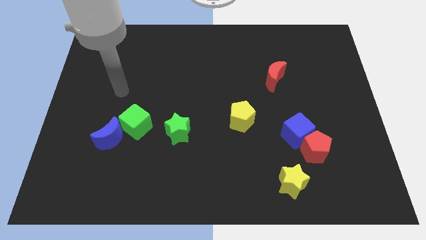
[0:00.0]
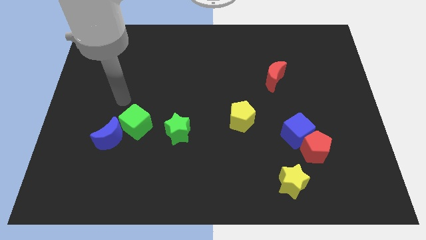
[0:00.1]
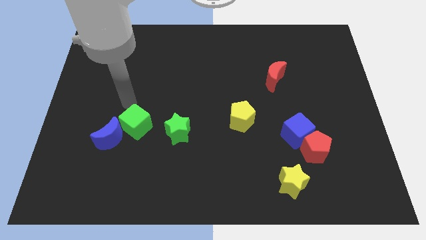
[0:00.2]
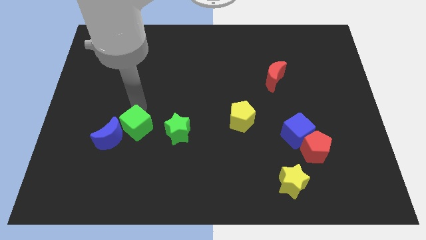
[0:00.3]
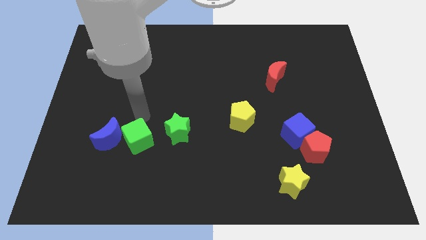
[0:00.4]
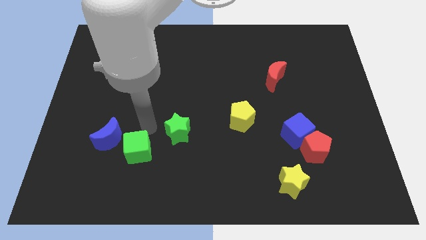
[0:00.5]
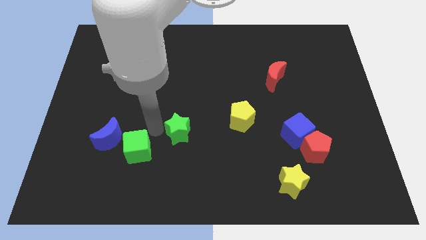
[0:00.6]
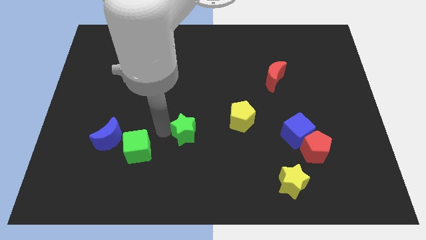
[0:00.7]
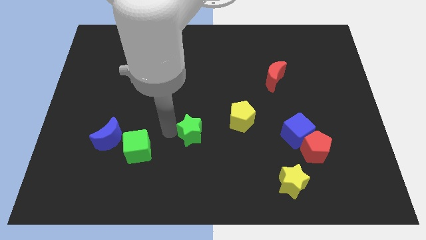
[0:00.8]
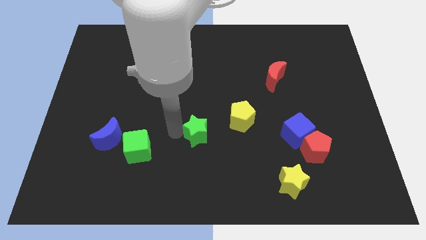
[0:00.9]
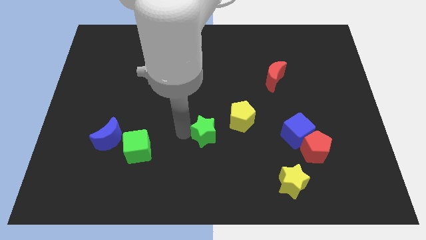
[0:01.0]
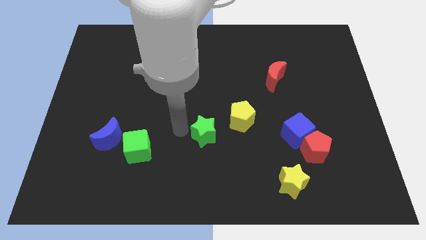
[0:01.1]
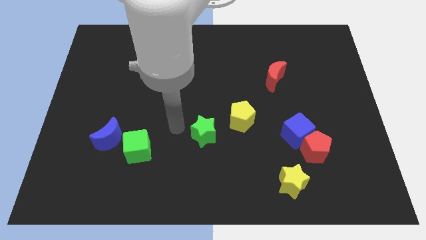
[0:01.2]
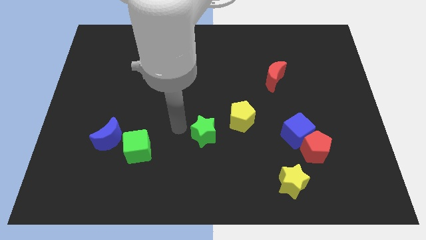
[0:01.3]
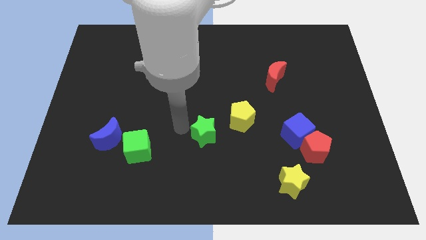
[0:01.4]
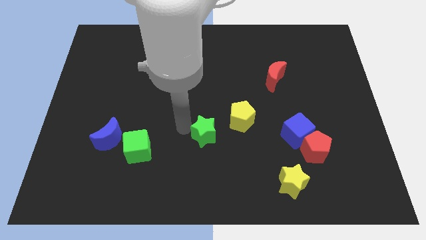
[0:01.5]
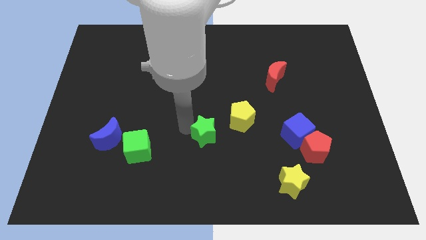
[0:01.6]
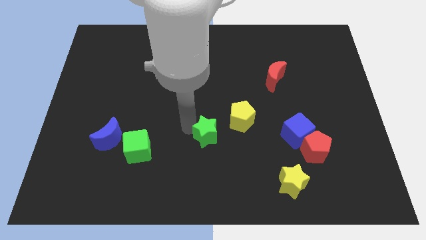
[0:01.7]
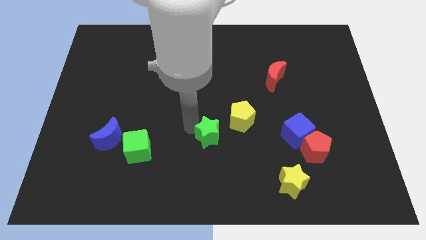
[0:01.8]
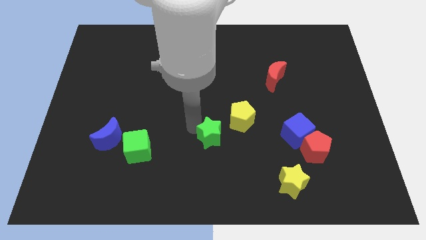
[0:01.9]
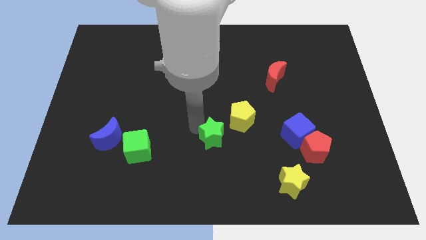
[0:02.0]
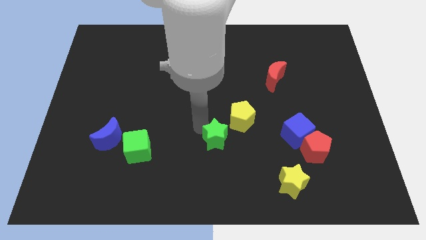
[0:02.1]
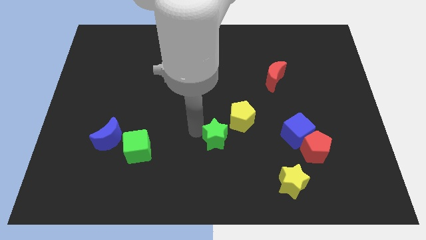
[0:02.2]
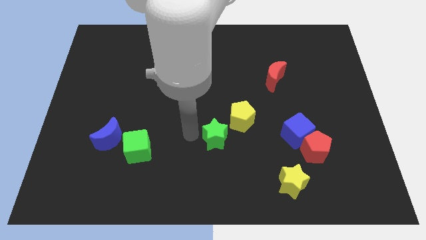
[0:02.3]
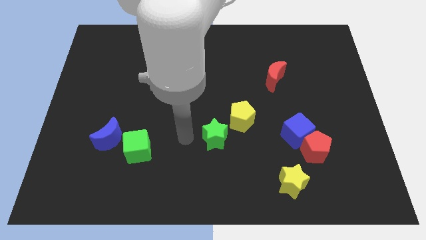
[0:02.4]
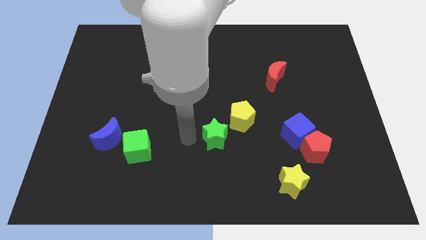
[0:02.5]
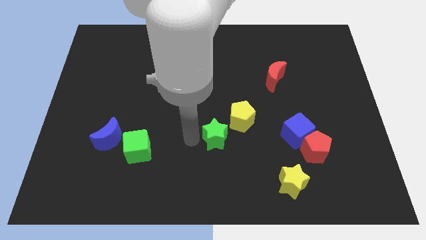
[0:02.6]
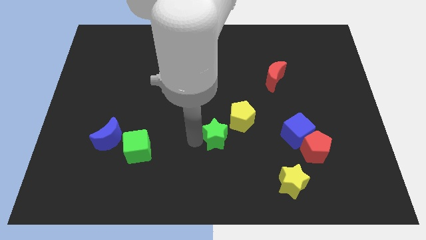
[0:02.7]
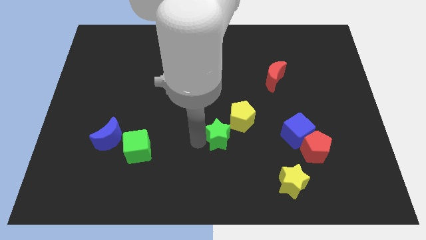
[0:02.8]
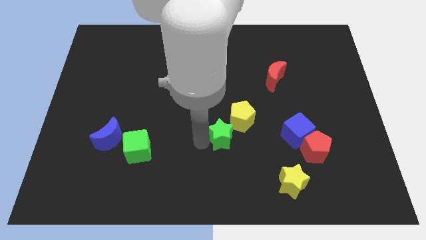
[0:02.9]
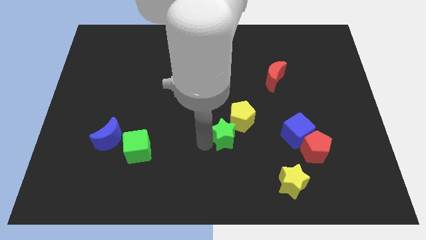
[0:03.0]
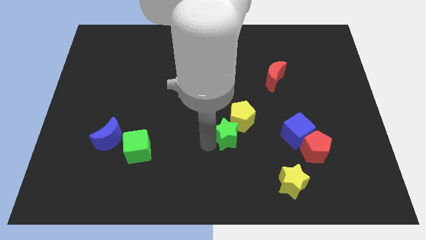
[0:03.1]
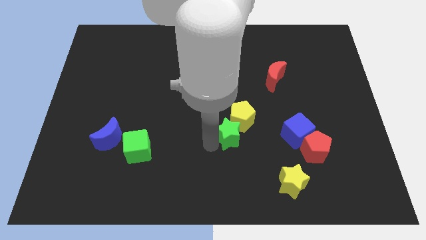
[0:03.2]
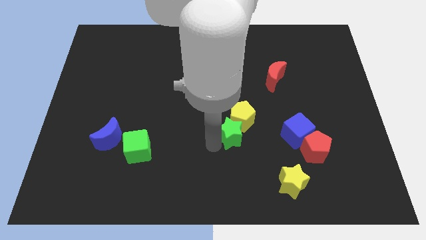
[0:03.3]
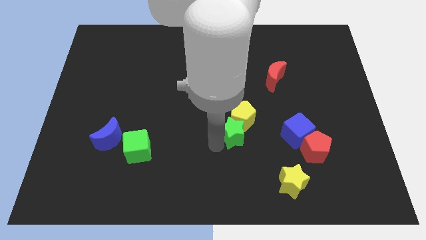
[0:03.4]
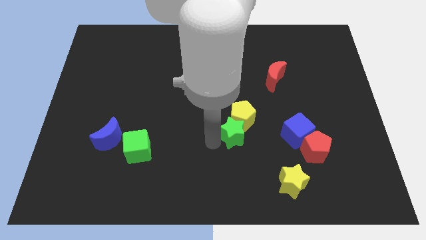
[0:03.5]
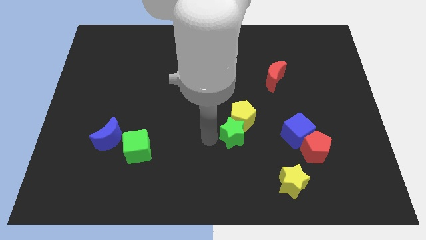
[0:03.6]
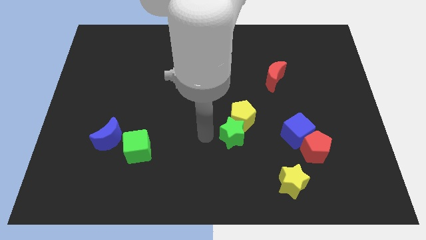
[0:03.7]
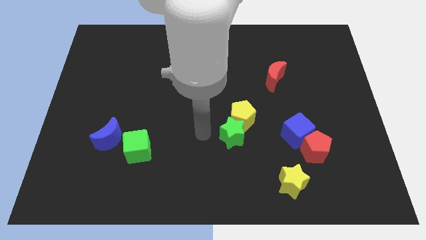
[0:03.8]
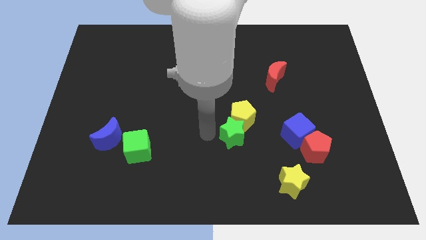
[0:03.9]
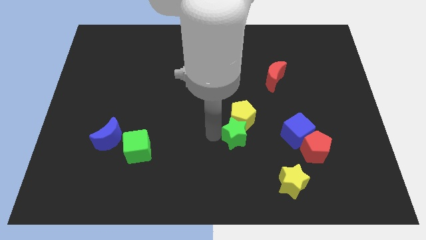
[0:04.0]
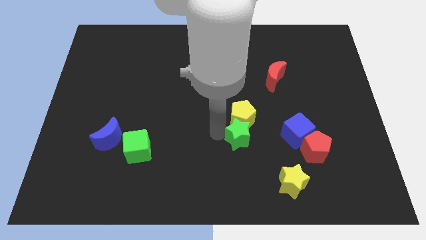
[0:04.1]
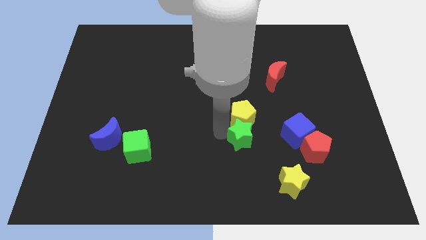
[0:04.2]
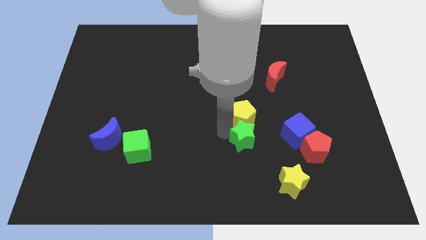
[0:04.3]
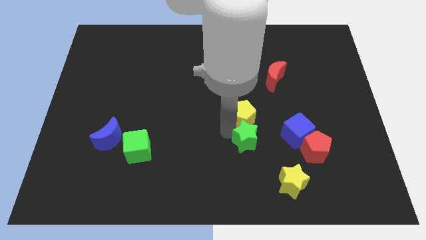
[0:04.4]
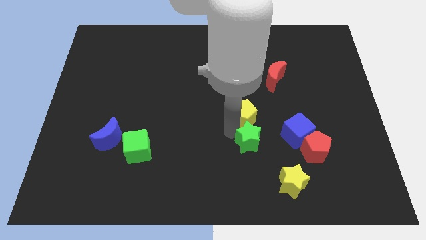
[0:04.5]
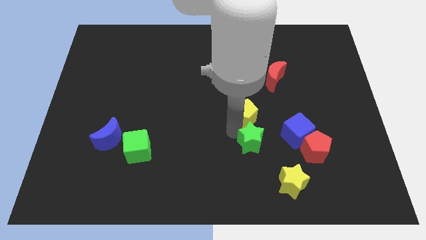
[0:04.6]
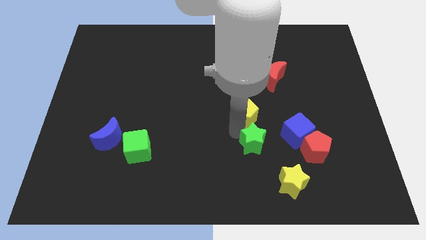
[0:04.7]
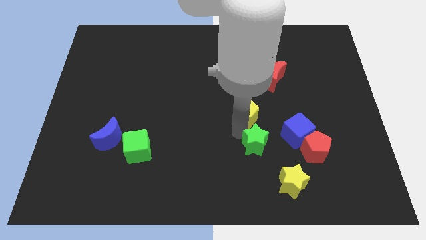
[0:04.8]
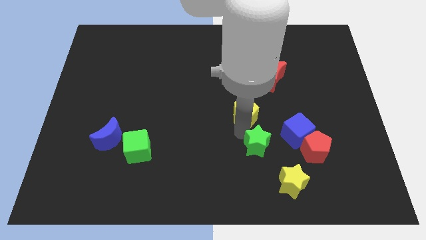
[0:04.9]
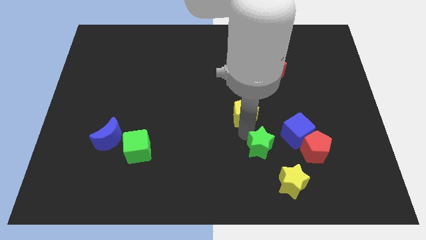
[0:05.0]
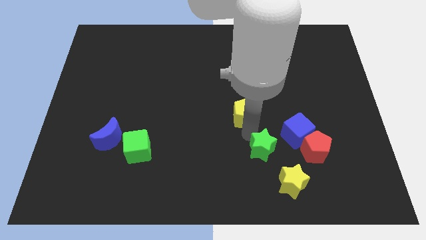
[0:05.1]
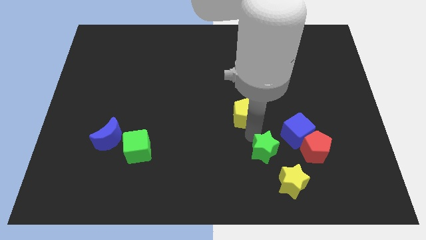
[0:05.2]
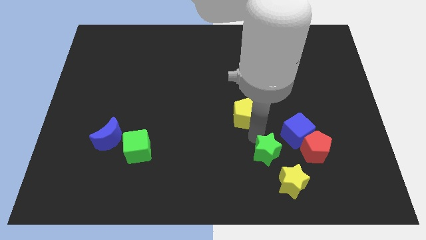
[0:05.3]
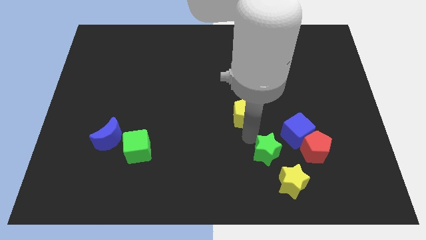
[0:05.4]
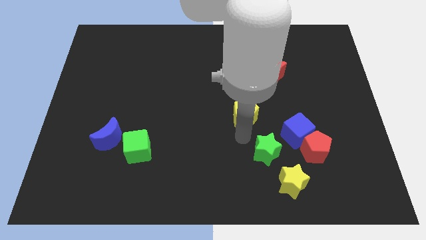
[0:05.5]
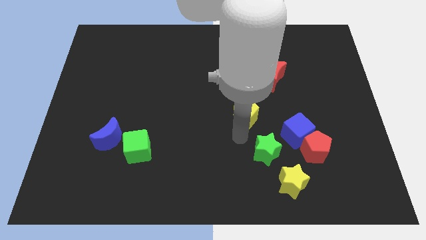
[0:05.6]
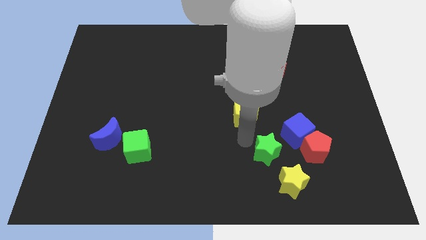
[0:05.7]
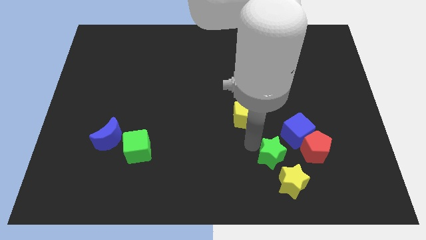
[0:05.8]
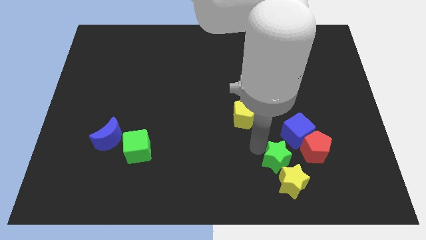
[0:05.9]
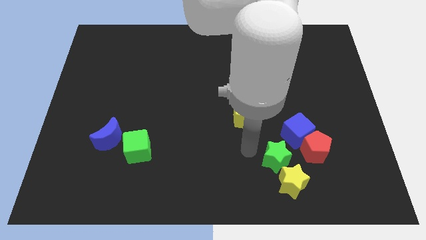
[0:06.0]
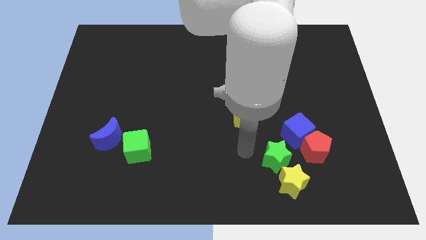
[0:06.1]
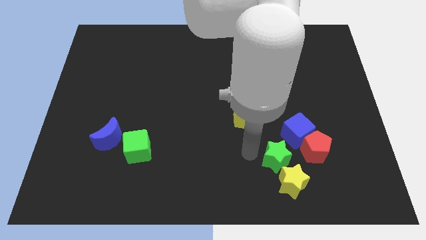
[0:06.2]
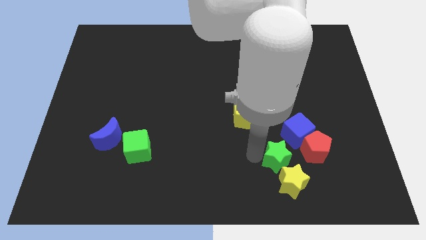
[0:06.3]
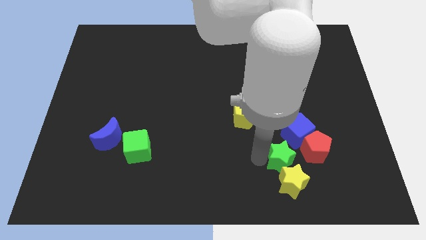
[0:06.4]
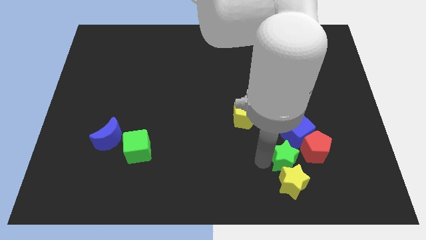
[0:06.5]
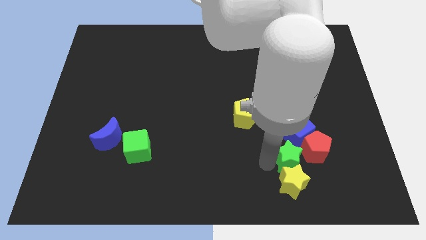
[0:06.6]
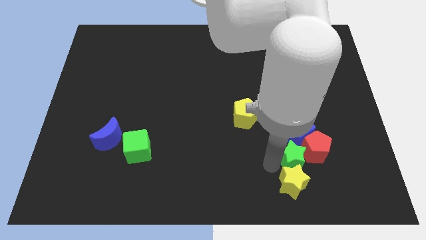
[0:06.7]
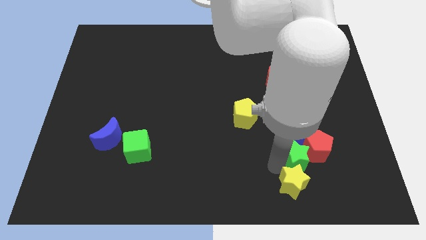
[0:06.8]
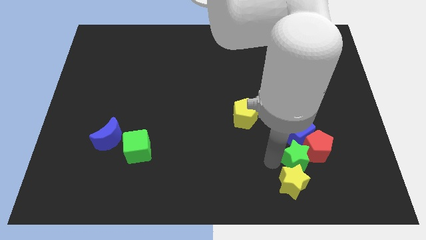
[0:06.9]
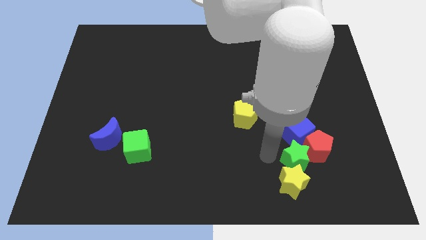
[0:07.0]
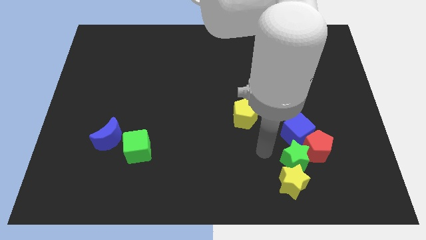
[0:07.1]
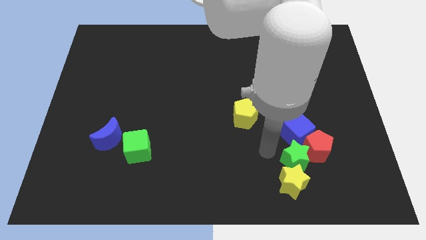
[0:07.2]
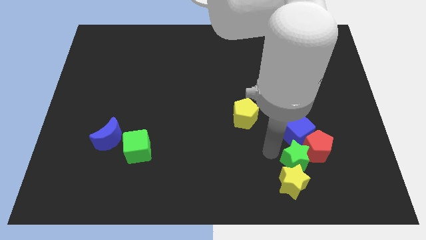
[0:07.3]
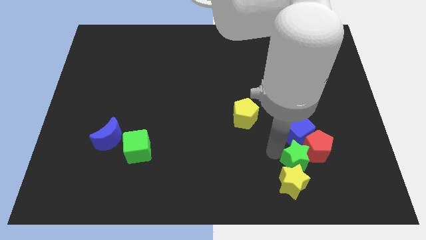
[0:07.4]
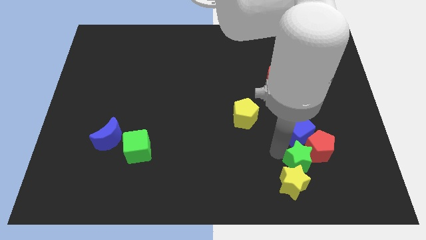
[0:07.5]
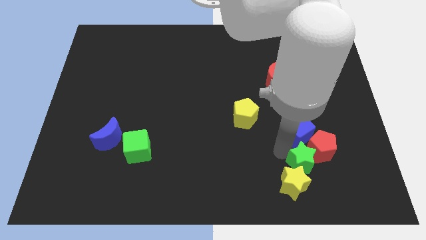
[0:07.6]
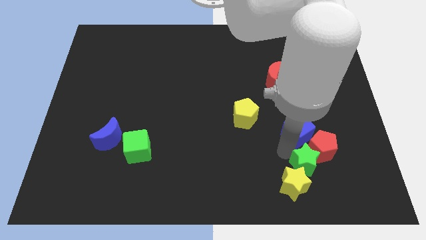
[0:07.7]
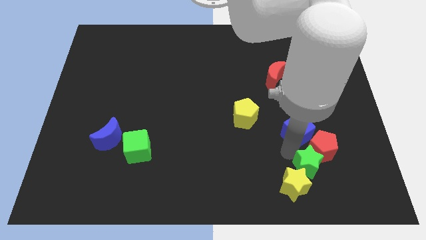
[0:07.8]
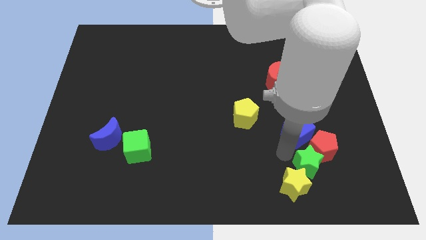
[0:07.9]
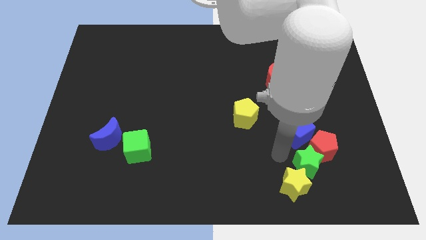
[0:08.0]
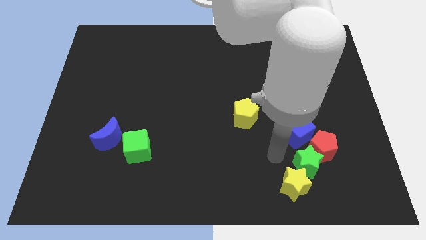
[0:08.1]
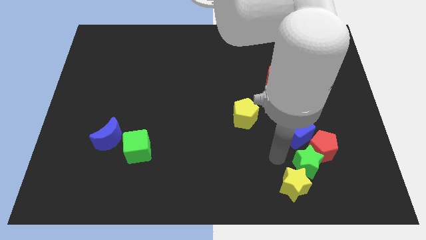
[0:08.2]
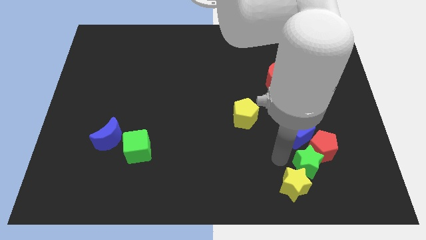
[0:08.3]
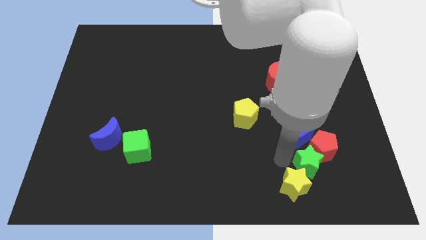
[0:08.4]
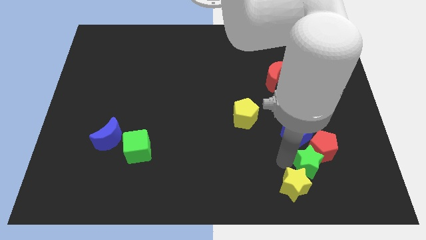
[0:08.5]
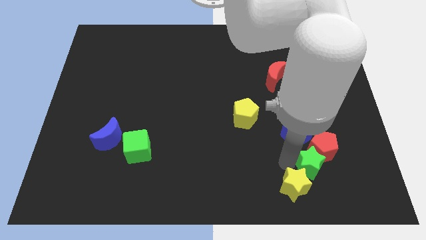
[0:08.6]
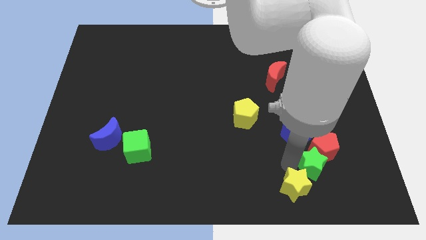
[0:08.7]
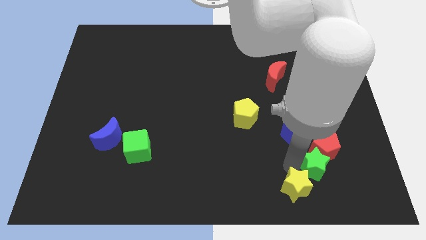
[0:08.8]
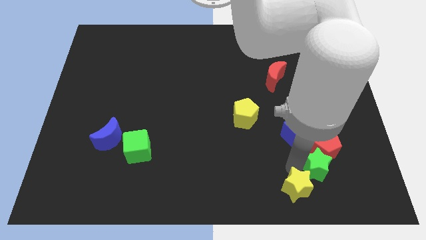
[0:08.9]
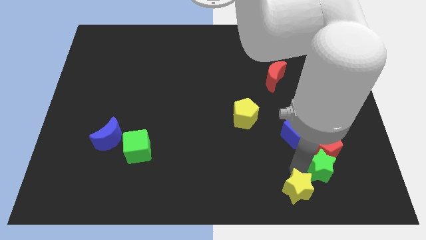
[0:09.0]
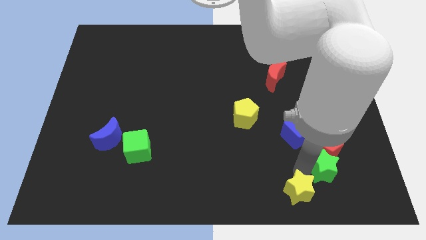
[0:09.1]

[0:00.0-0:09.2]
push the green star to the bottom right side of the red pentagon
